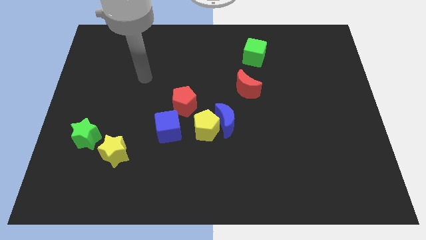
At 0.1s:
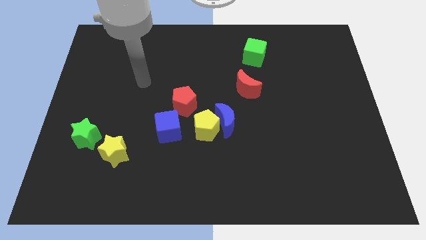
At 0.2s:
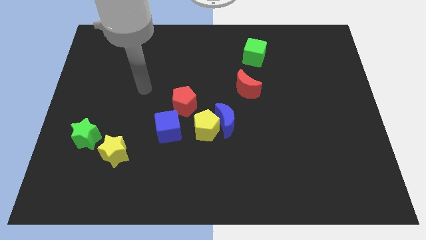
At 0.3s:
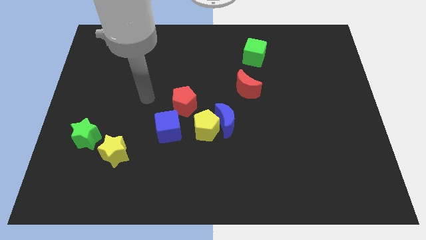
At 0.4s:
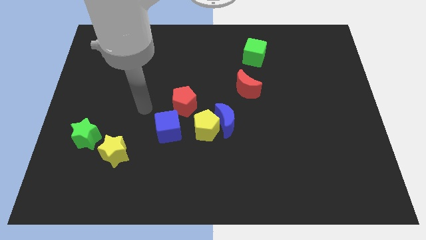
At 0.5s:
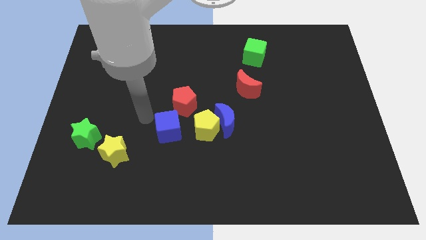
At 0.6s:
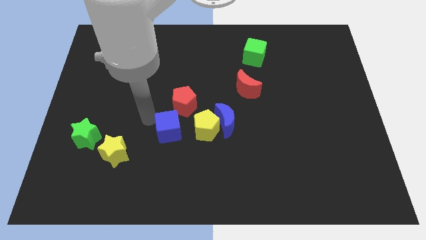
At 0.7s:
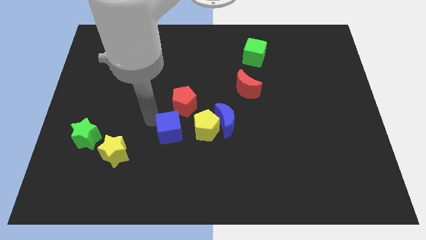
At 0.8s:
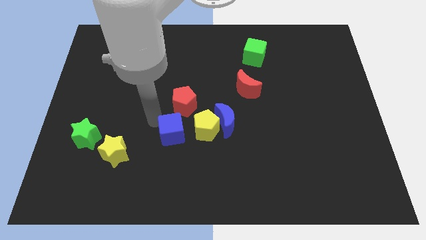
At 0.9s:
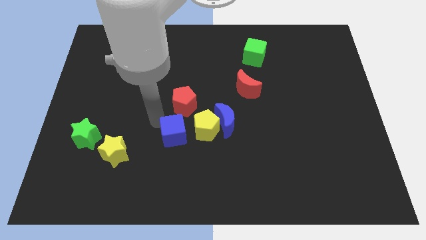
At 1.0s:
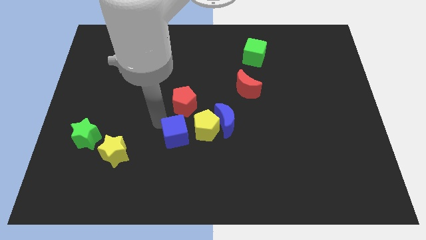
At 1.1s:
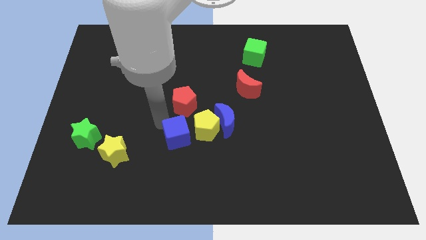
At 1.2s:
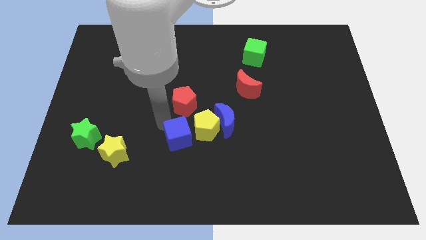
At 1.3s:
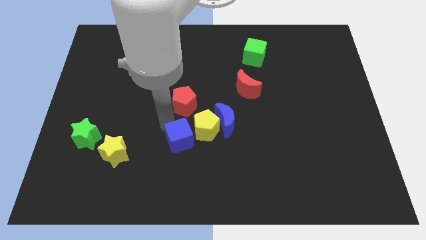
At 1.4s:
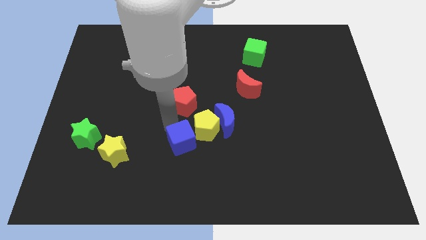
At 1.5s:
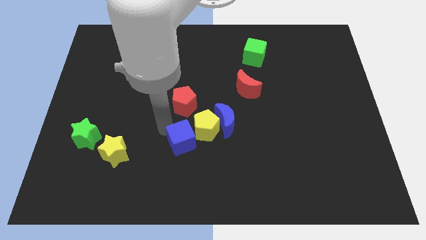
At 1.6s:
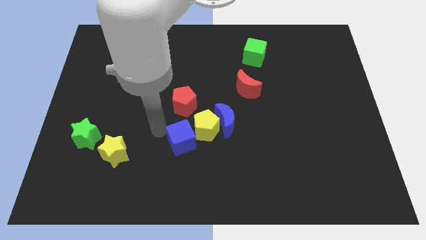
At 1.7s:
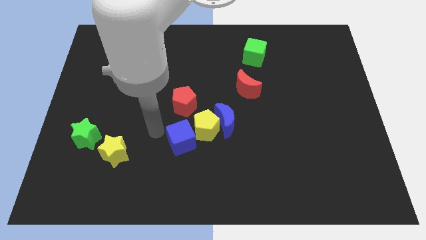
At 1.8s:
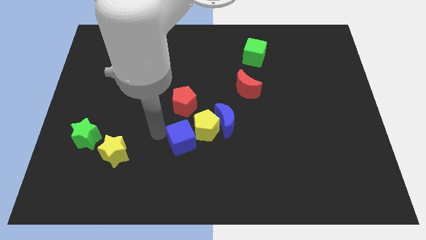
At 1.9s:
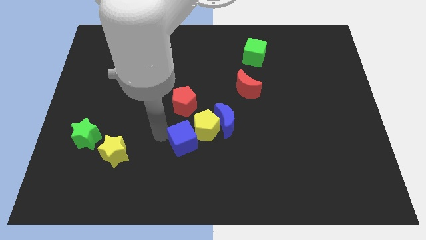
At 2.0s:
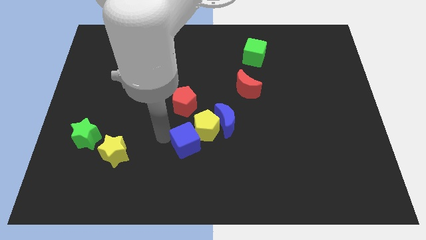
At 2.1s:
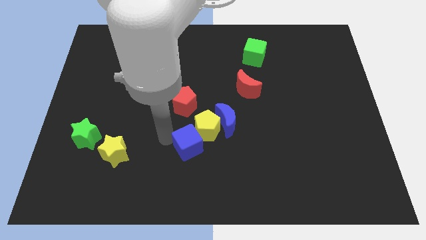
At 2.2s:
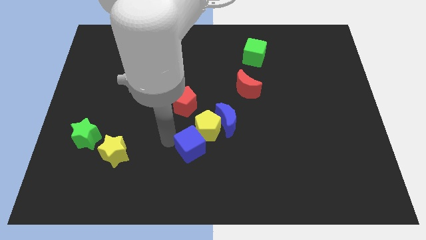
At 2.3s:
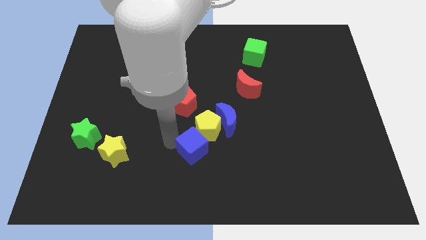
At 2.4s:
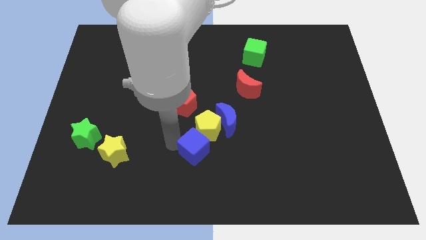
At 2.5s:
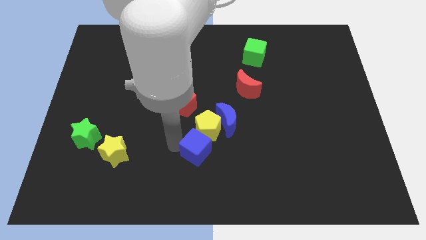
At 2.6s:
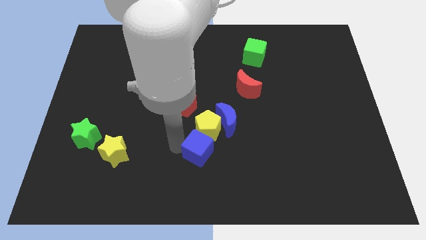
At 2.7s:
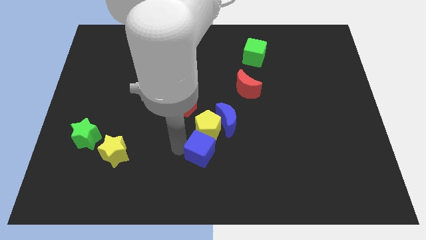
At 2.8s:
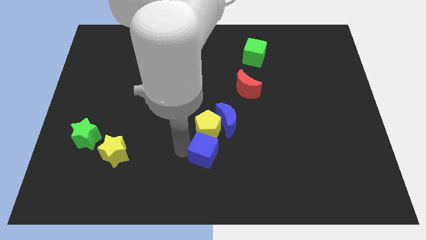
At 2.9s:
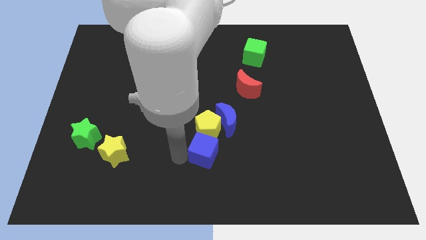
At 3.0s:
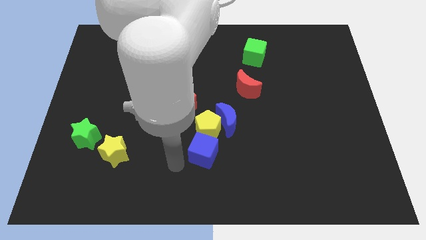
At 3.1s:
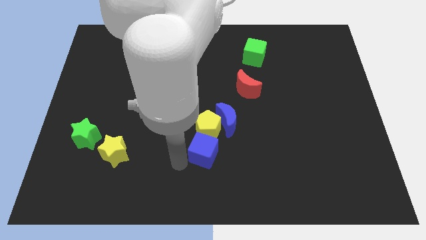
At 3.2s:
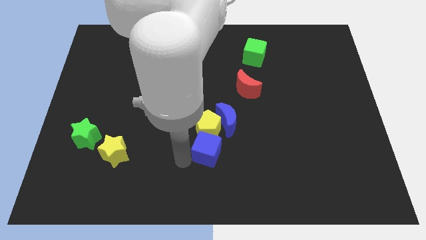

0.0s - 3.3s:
slide the blue cube somewhat right

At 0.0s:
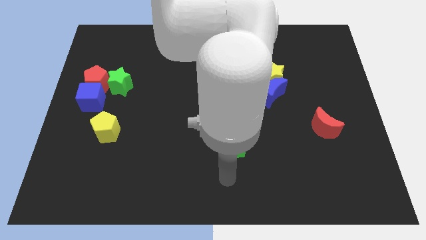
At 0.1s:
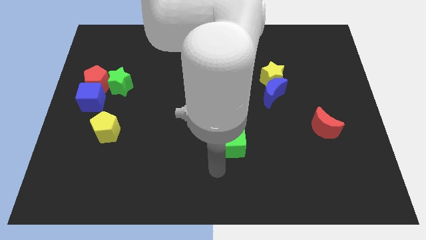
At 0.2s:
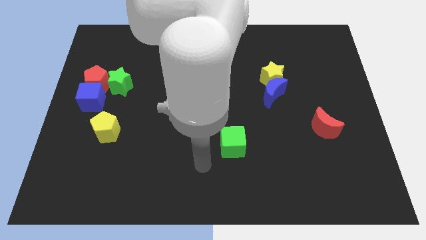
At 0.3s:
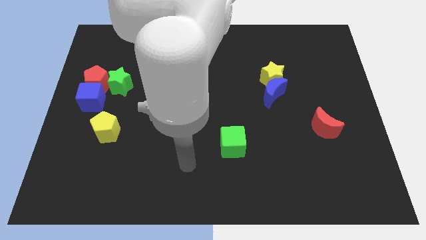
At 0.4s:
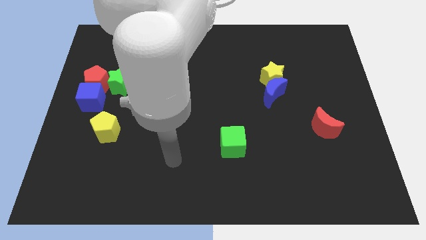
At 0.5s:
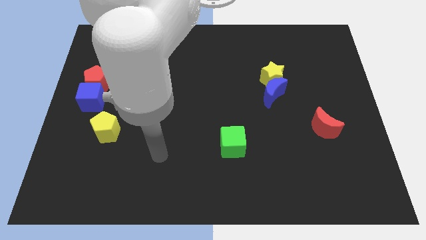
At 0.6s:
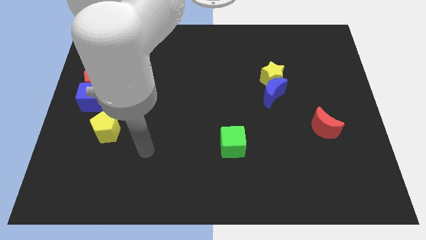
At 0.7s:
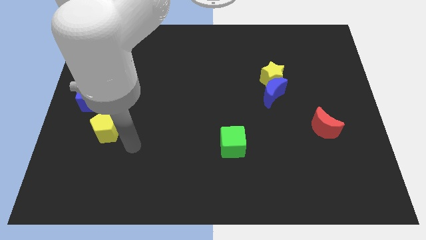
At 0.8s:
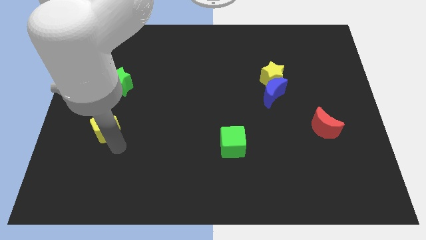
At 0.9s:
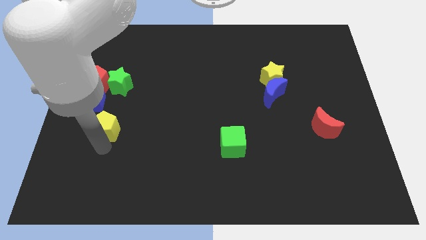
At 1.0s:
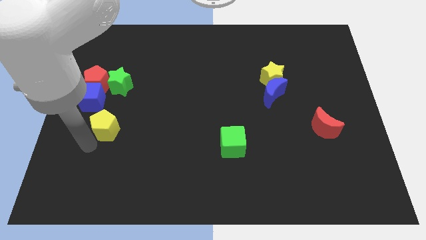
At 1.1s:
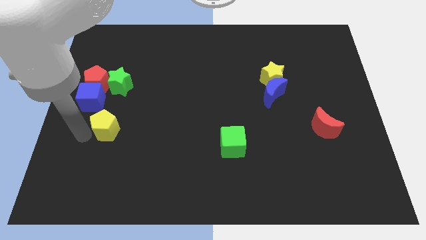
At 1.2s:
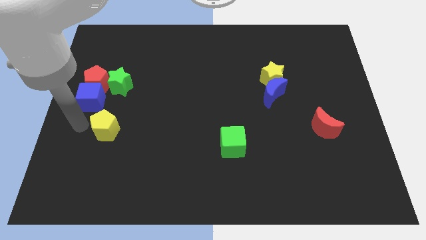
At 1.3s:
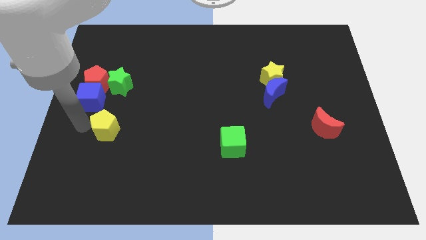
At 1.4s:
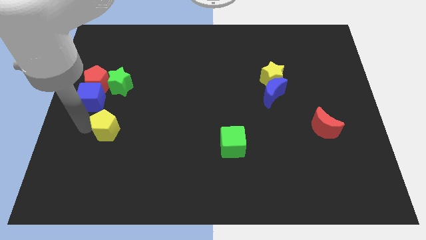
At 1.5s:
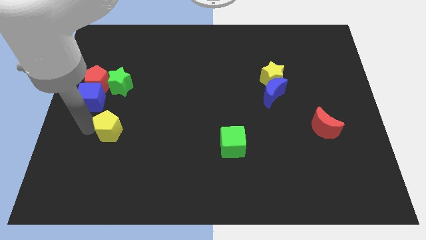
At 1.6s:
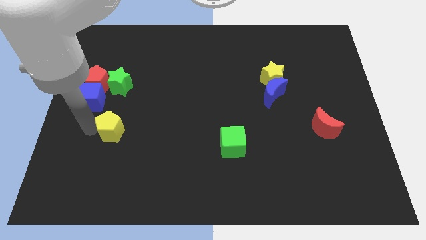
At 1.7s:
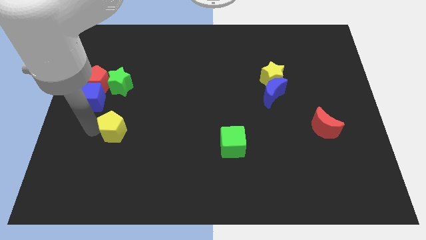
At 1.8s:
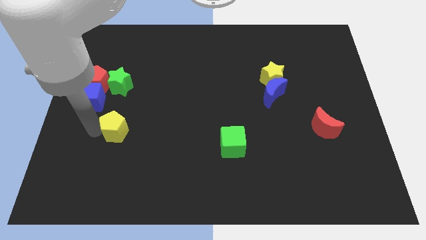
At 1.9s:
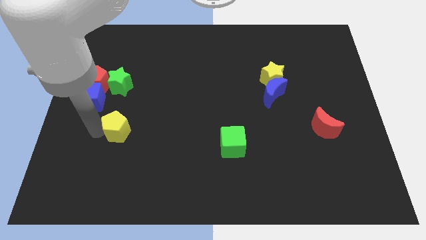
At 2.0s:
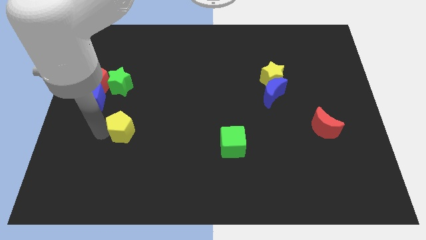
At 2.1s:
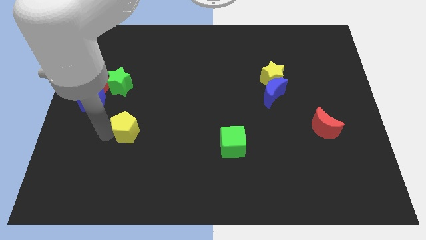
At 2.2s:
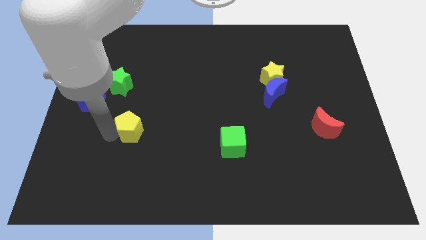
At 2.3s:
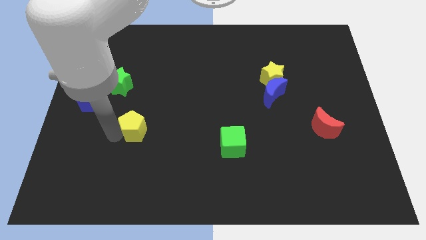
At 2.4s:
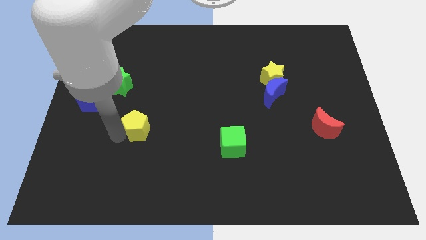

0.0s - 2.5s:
slightly slide the yellow pentagon to the right

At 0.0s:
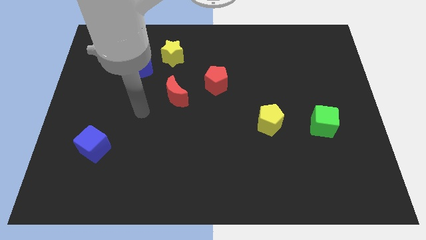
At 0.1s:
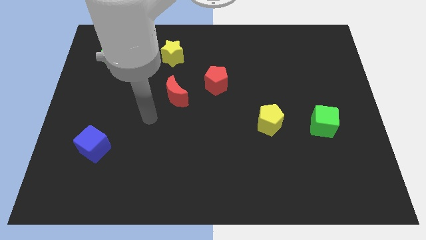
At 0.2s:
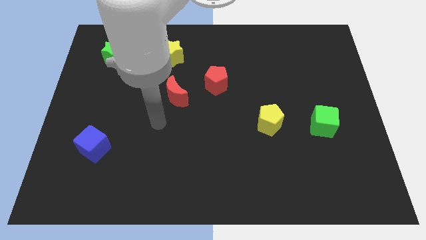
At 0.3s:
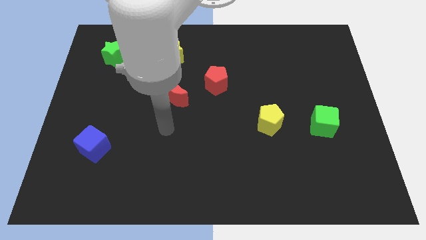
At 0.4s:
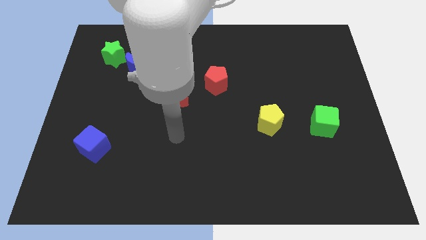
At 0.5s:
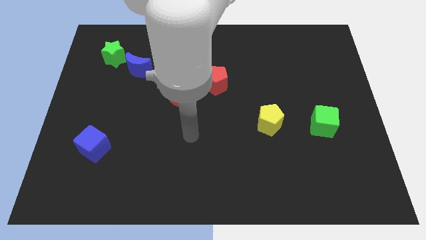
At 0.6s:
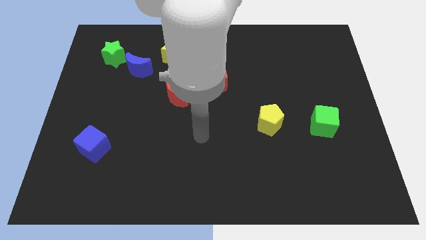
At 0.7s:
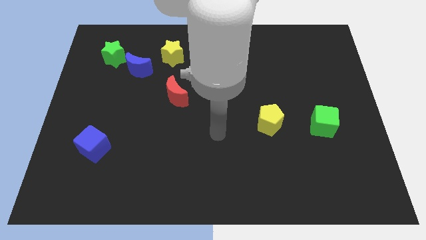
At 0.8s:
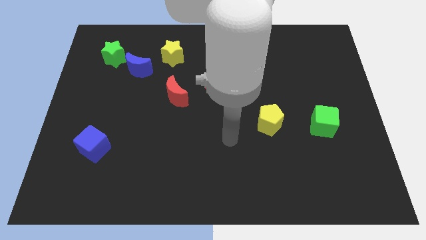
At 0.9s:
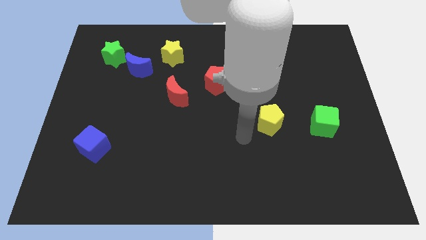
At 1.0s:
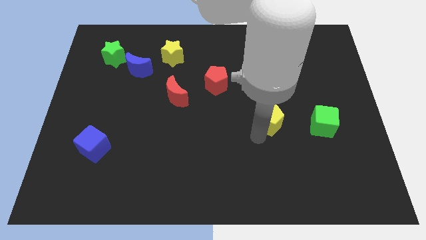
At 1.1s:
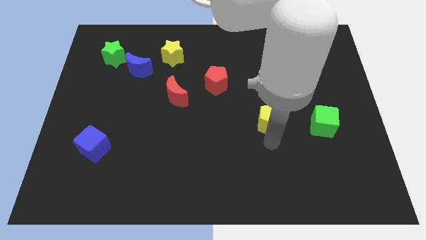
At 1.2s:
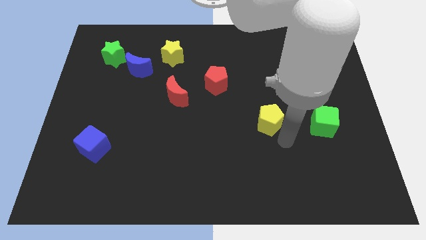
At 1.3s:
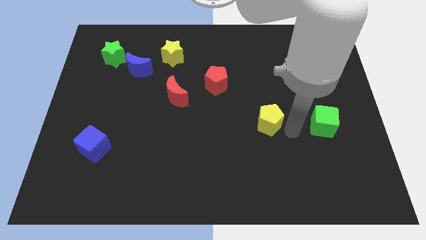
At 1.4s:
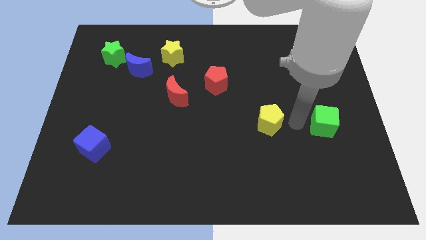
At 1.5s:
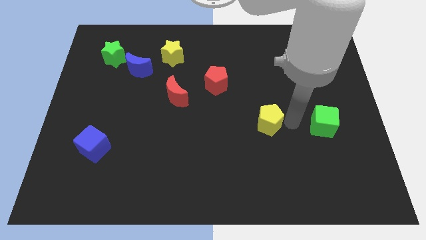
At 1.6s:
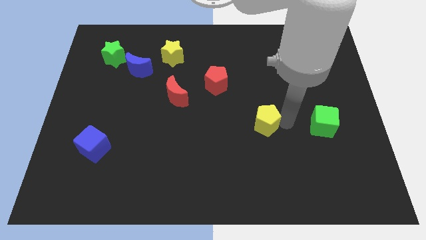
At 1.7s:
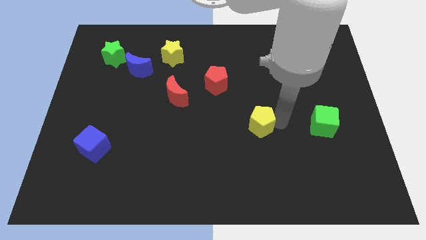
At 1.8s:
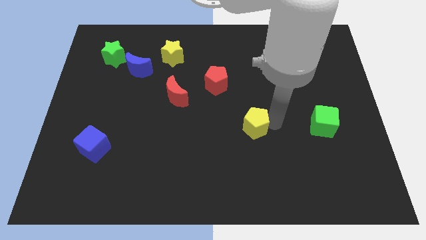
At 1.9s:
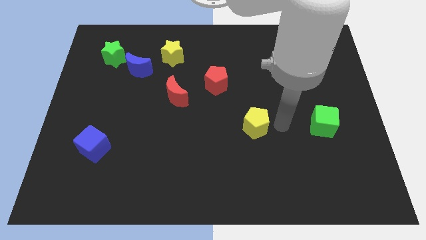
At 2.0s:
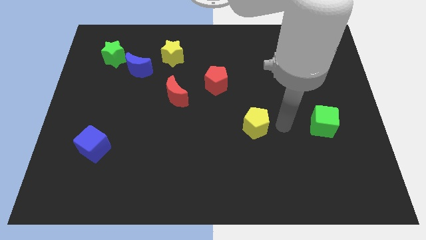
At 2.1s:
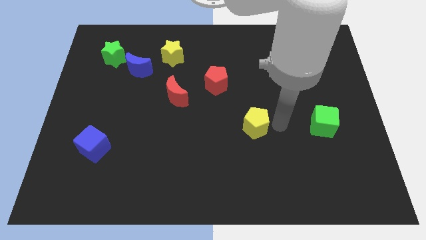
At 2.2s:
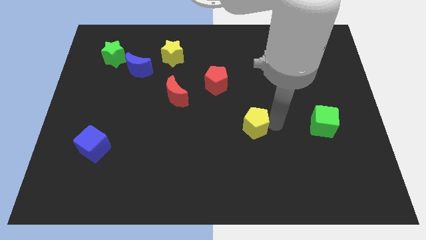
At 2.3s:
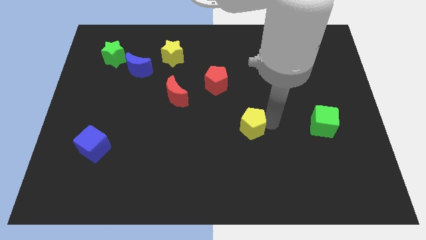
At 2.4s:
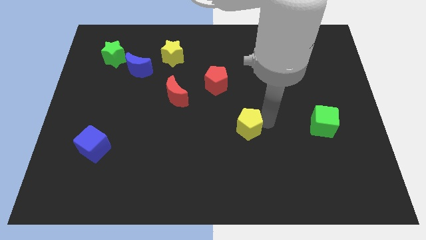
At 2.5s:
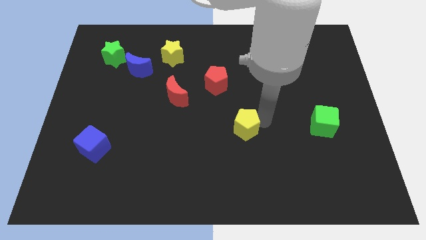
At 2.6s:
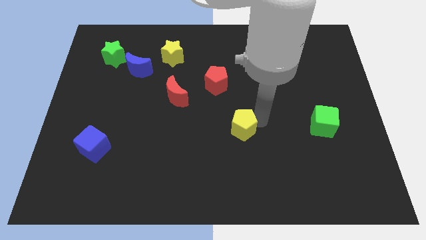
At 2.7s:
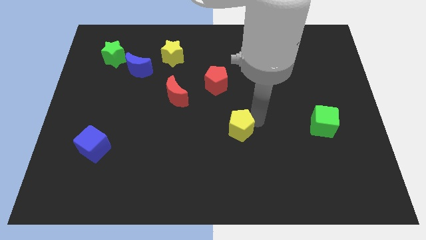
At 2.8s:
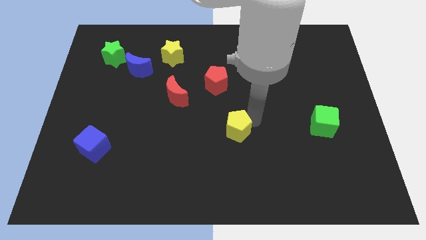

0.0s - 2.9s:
slightly move the yellow pentagon left
